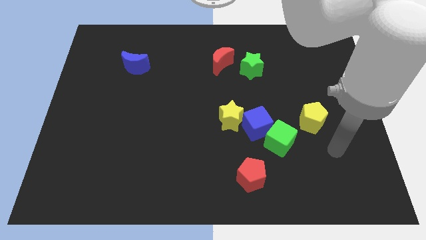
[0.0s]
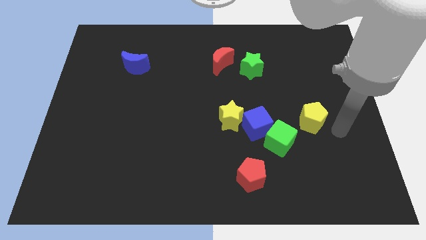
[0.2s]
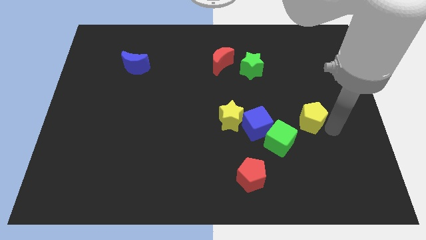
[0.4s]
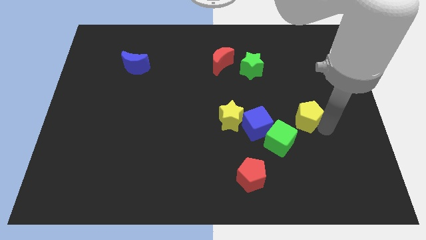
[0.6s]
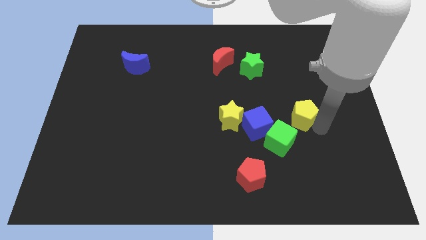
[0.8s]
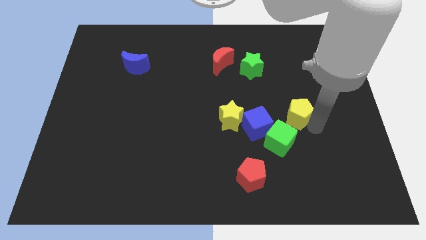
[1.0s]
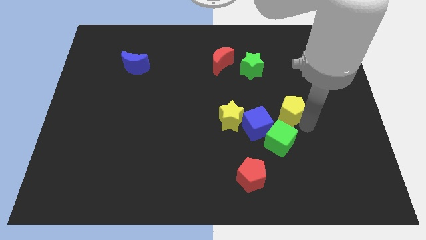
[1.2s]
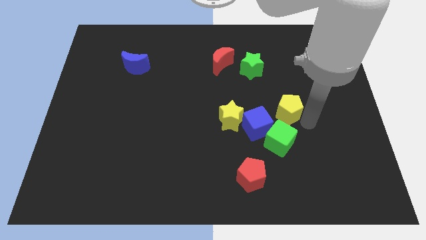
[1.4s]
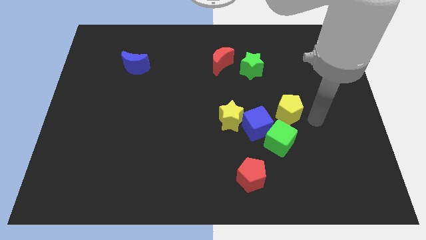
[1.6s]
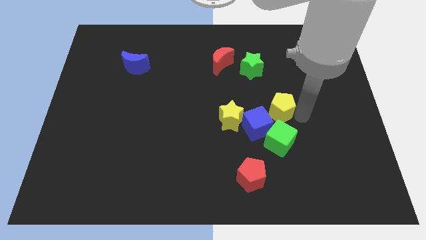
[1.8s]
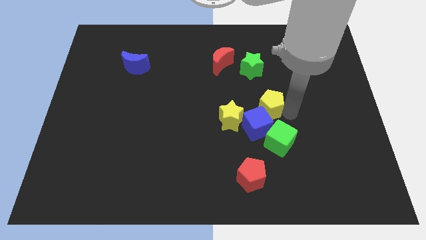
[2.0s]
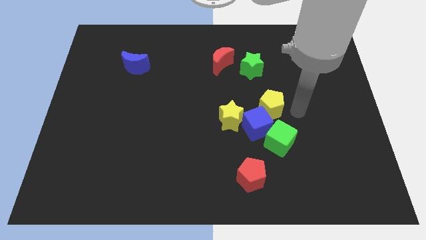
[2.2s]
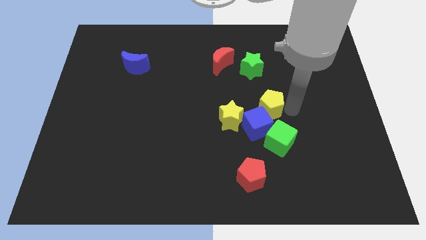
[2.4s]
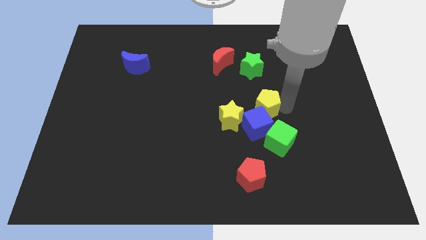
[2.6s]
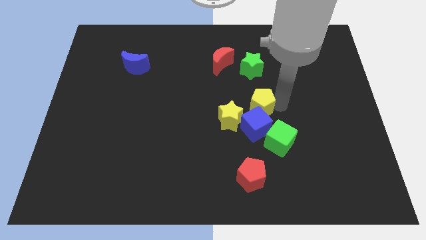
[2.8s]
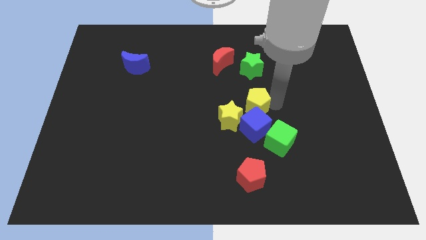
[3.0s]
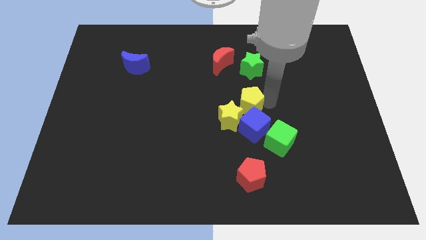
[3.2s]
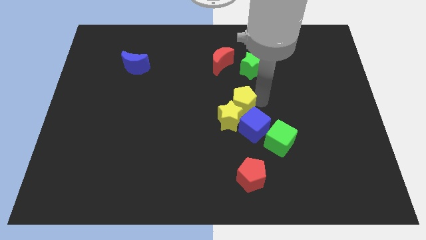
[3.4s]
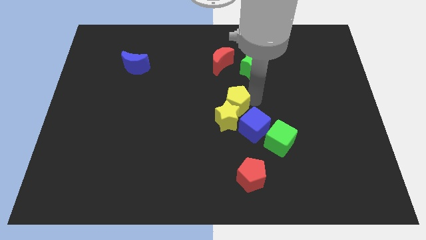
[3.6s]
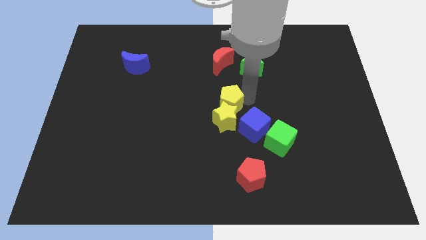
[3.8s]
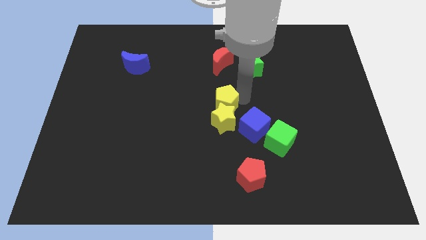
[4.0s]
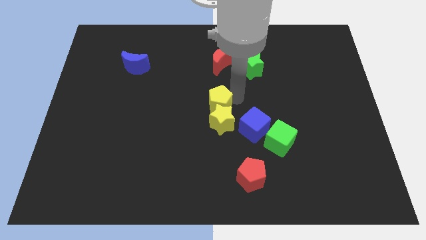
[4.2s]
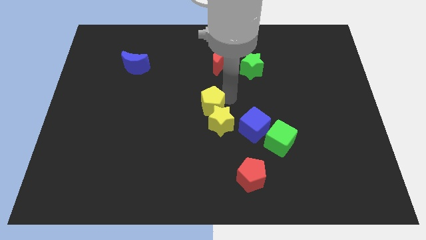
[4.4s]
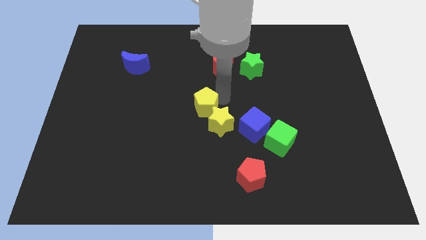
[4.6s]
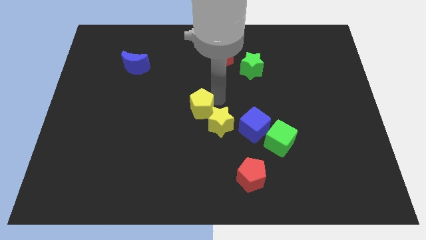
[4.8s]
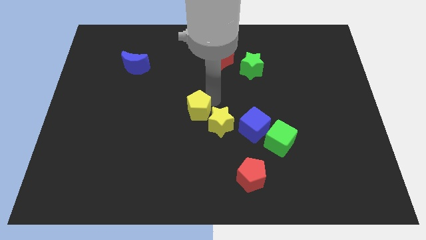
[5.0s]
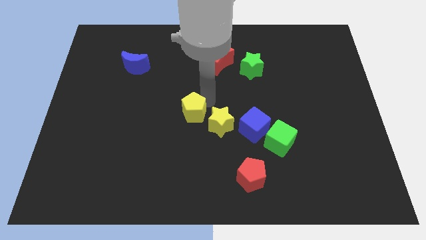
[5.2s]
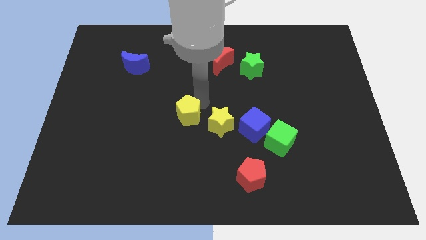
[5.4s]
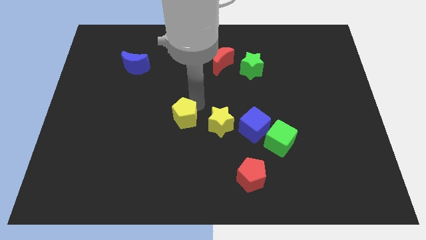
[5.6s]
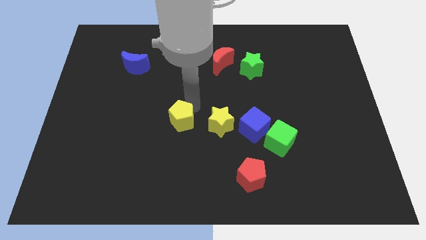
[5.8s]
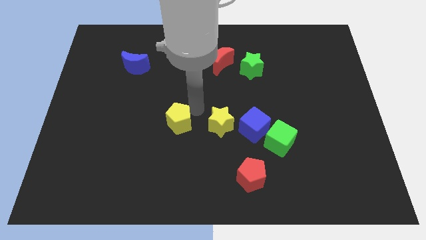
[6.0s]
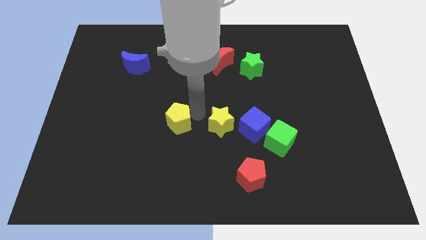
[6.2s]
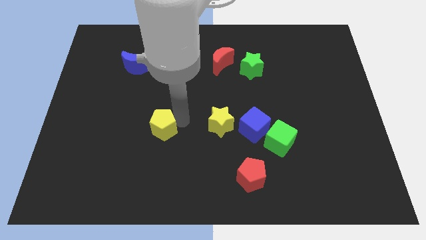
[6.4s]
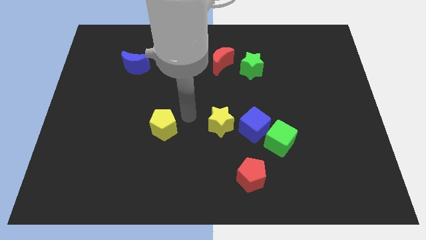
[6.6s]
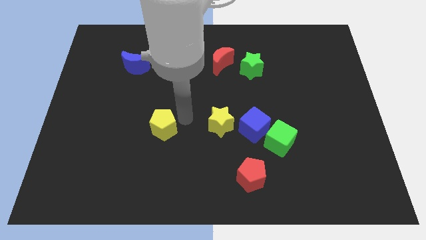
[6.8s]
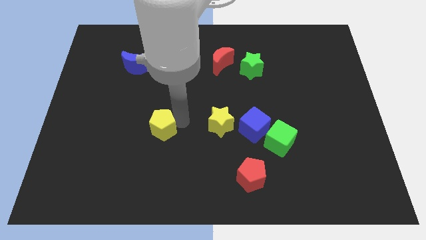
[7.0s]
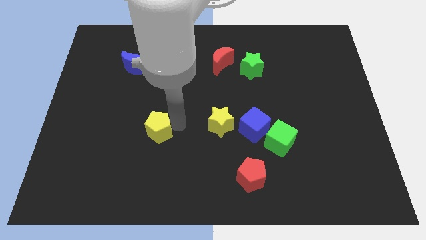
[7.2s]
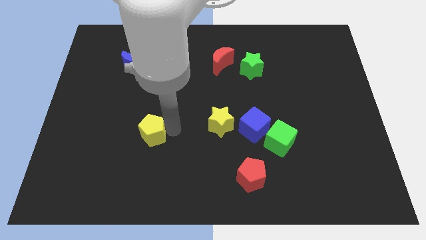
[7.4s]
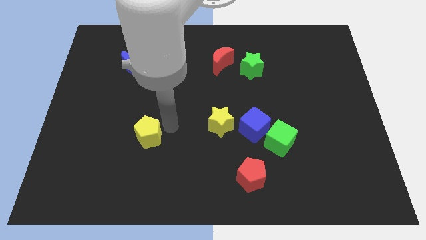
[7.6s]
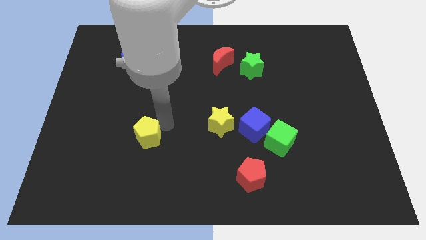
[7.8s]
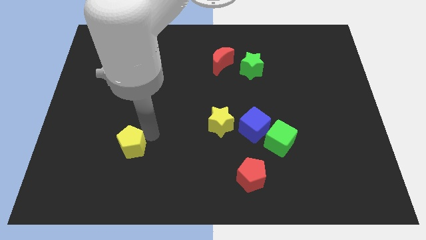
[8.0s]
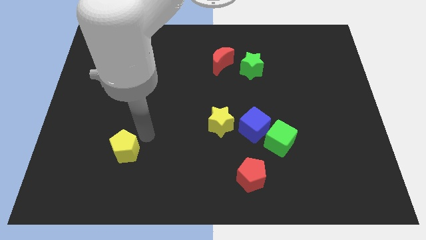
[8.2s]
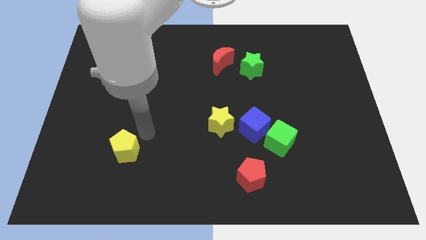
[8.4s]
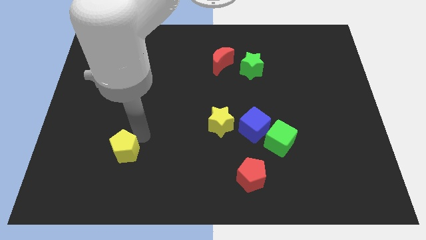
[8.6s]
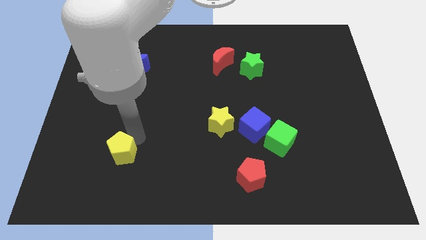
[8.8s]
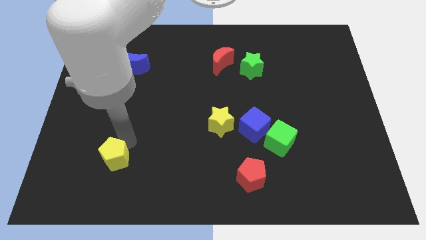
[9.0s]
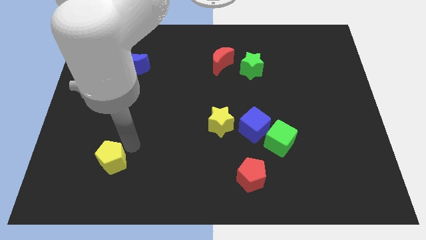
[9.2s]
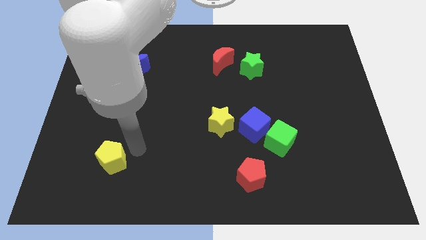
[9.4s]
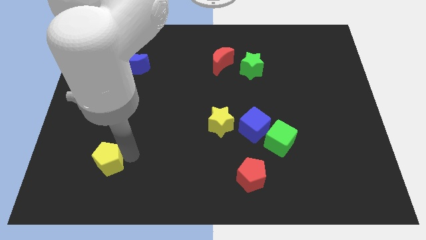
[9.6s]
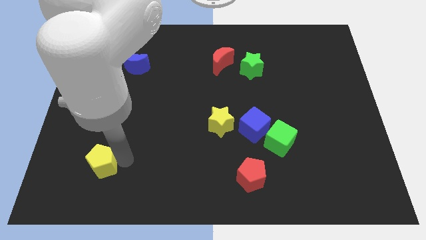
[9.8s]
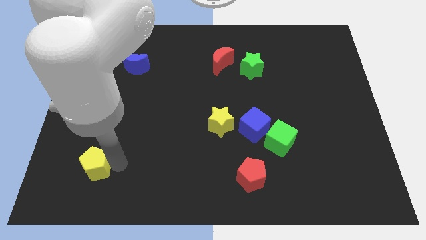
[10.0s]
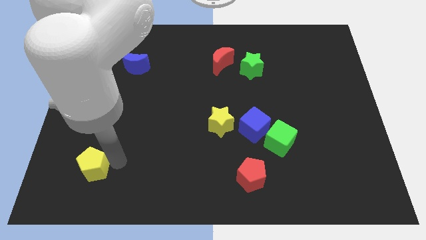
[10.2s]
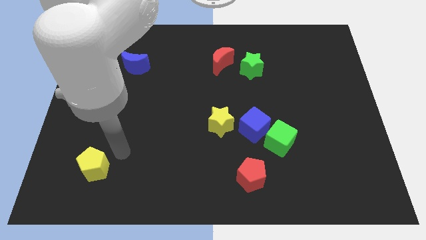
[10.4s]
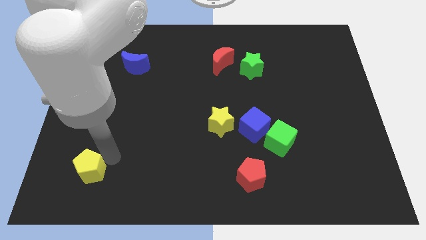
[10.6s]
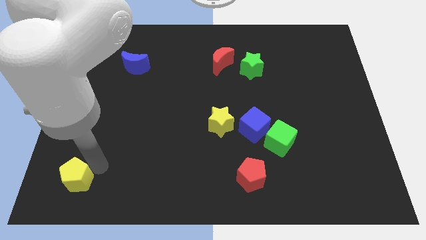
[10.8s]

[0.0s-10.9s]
put the yellow pentagon to the bottom left

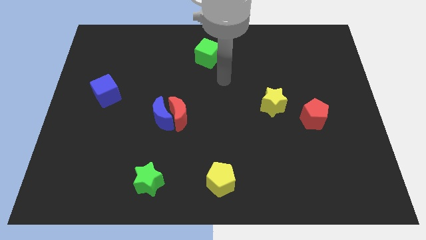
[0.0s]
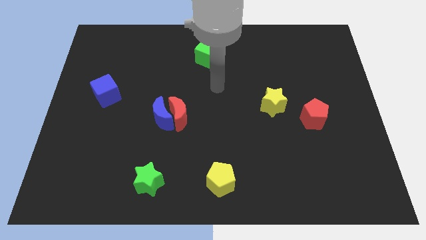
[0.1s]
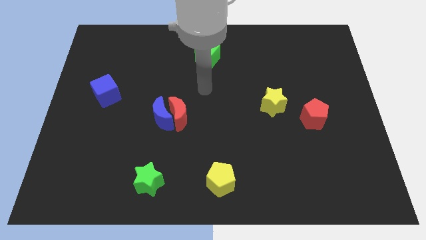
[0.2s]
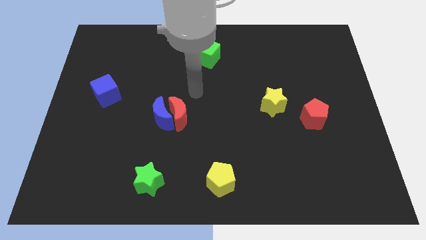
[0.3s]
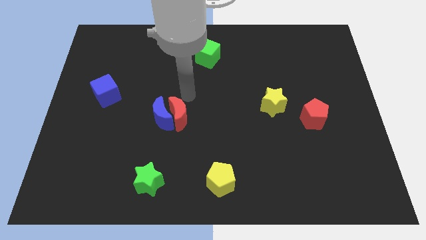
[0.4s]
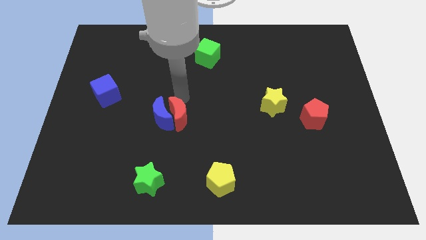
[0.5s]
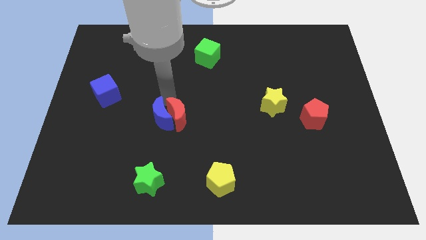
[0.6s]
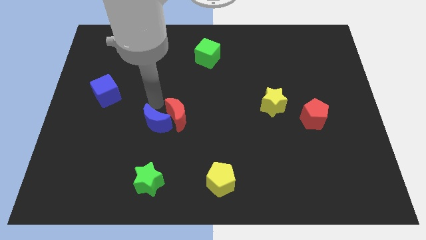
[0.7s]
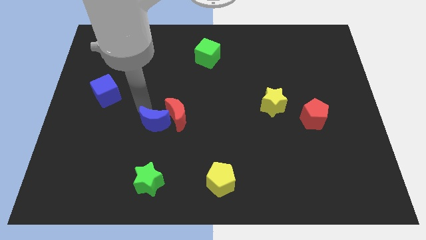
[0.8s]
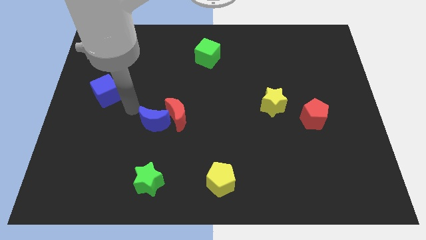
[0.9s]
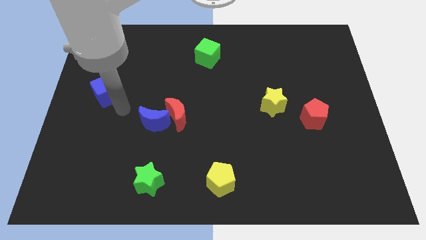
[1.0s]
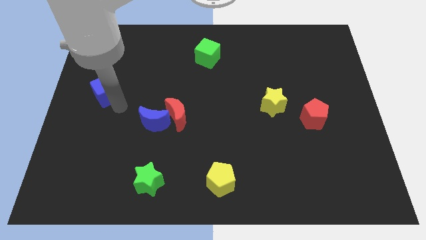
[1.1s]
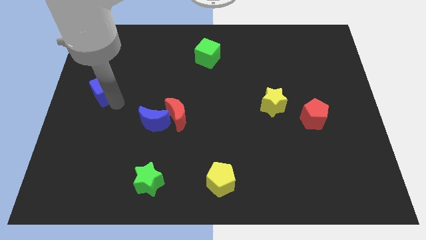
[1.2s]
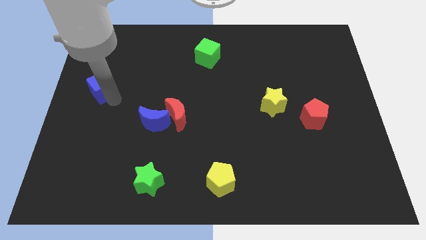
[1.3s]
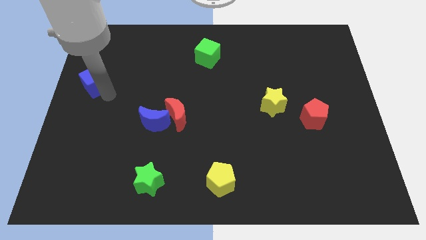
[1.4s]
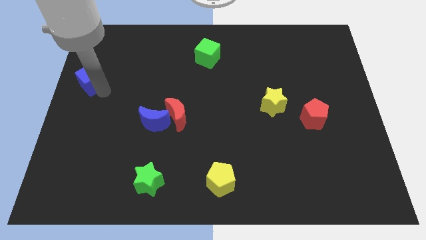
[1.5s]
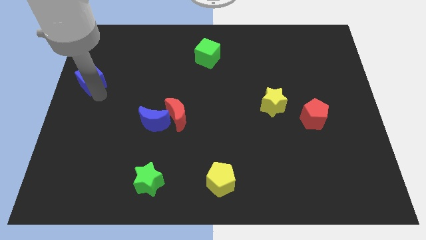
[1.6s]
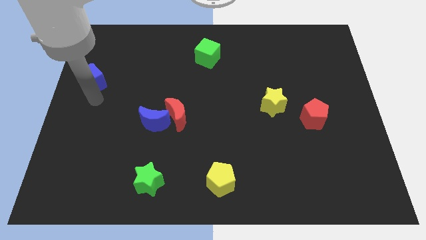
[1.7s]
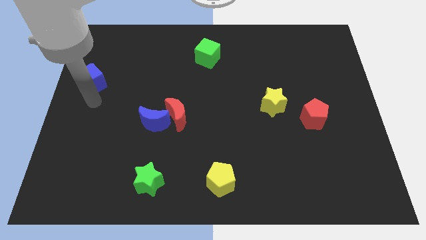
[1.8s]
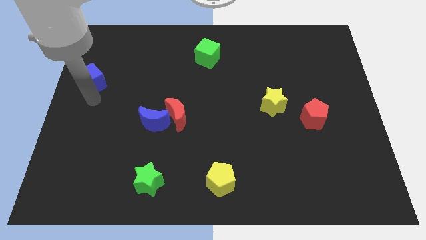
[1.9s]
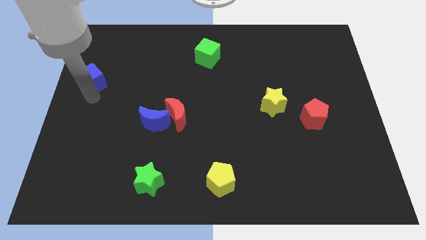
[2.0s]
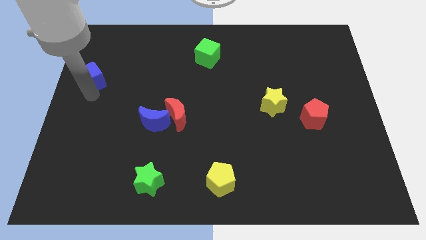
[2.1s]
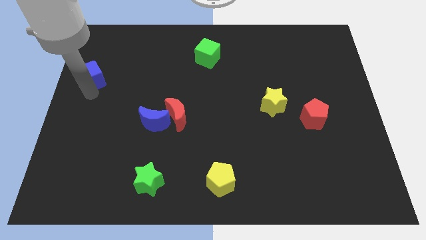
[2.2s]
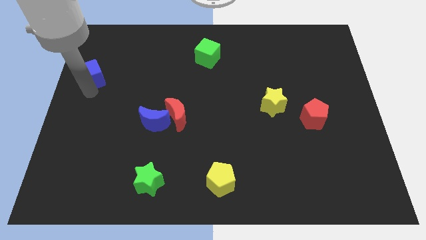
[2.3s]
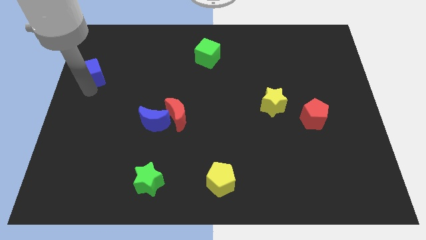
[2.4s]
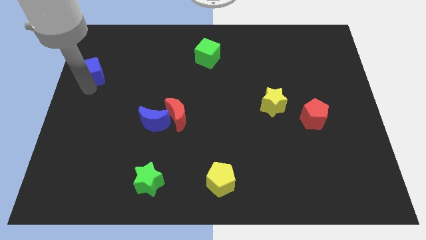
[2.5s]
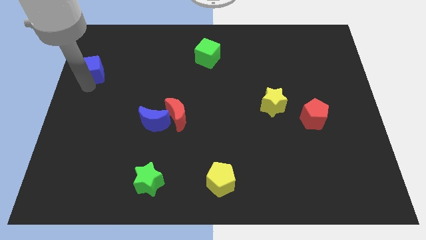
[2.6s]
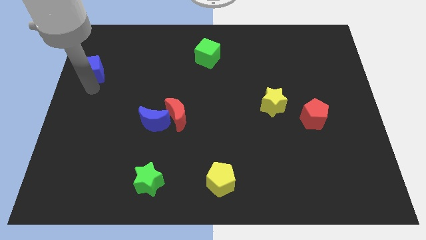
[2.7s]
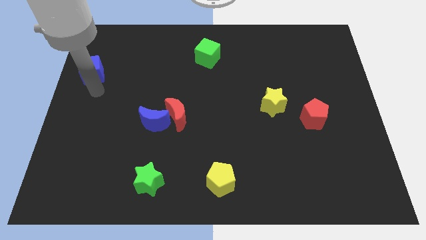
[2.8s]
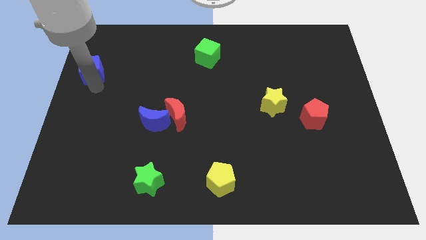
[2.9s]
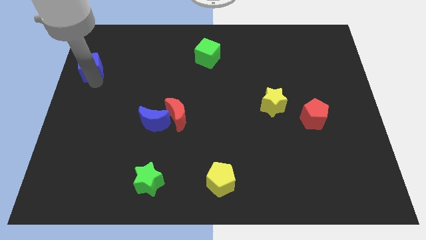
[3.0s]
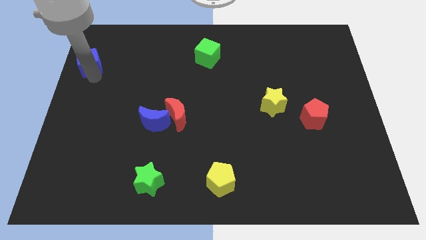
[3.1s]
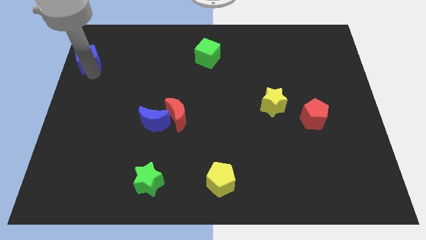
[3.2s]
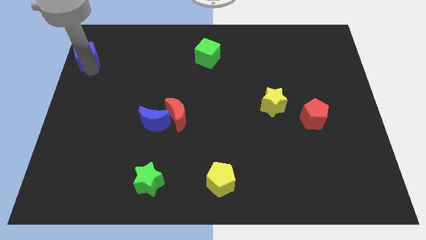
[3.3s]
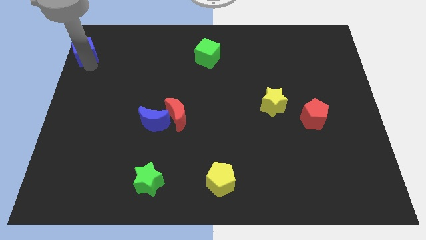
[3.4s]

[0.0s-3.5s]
slide the blue cube to the top left
